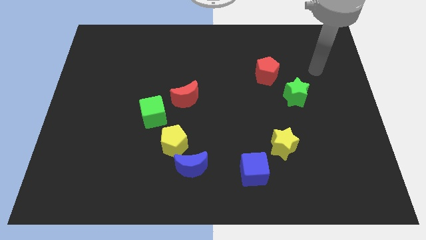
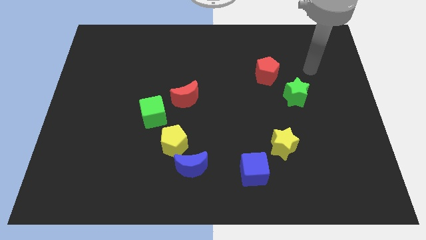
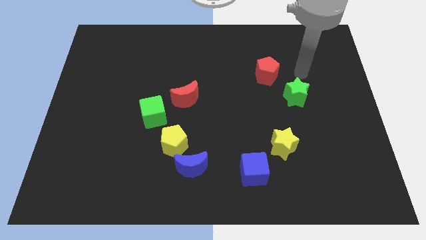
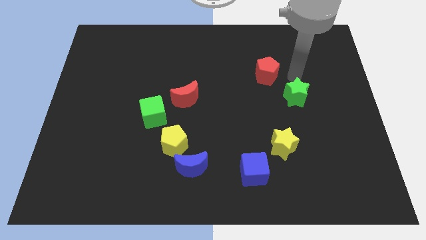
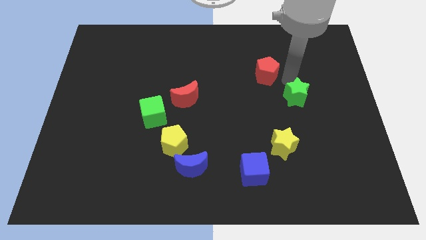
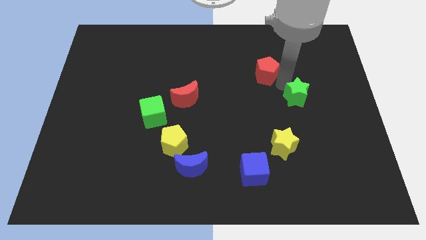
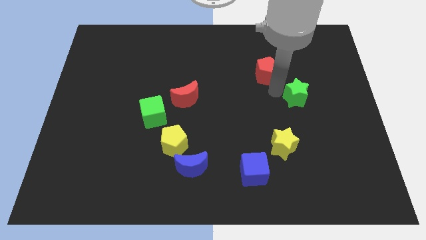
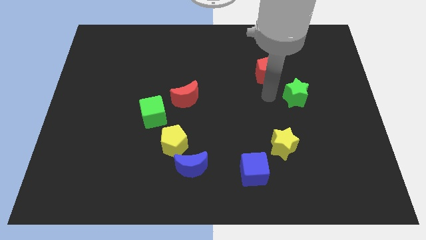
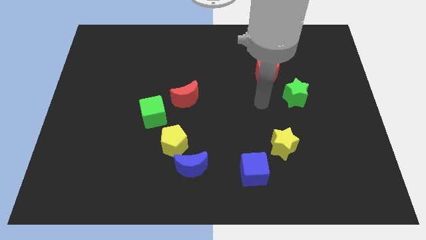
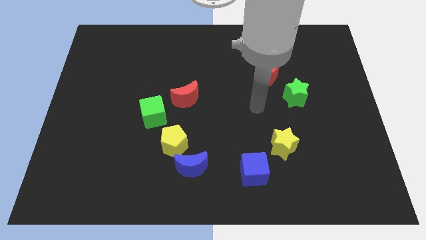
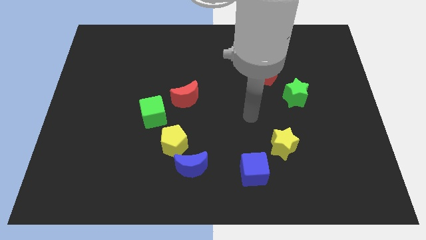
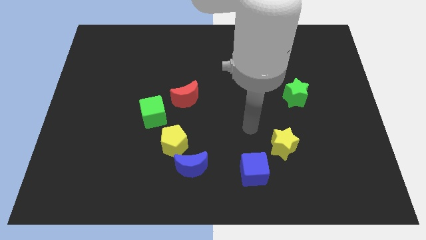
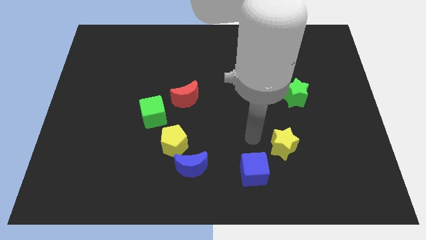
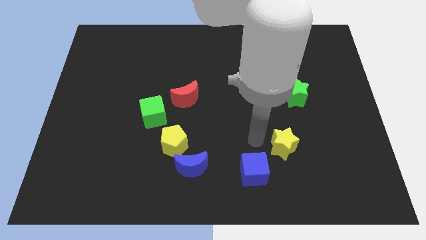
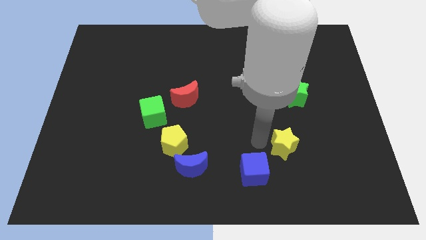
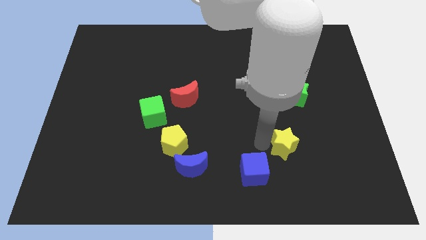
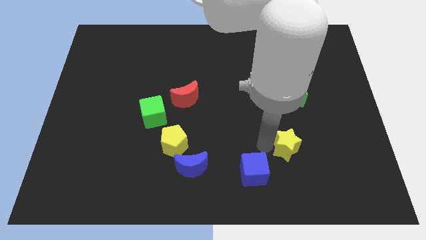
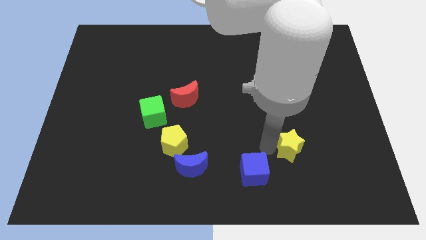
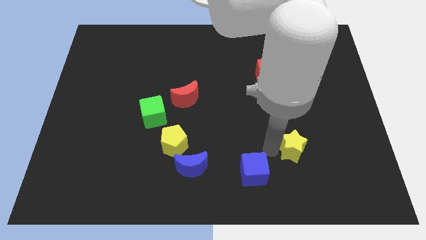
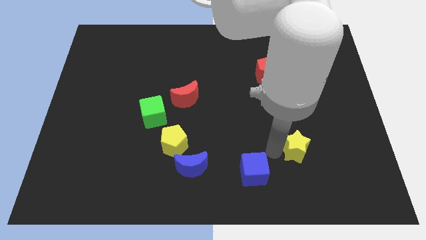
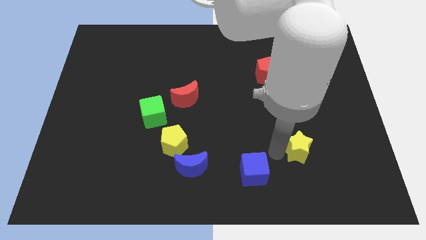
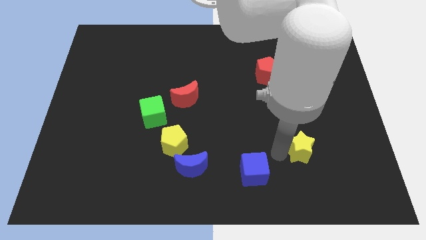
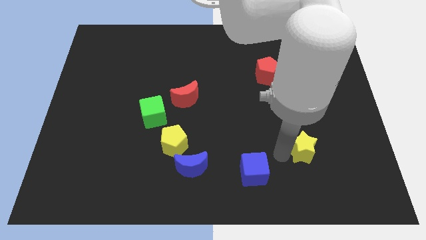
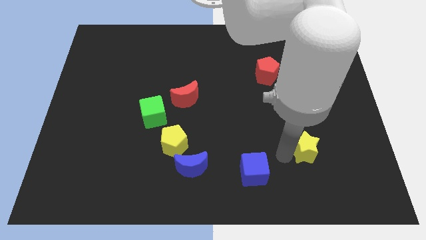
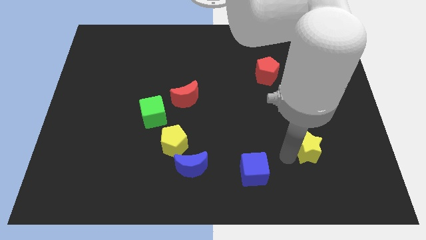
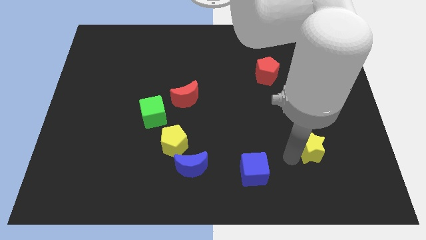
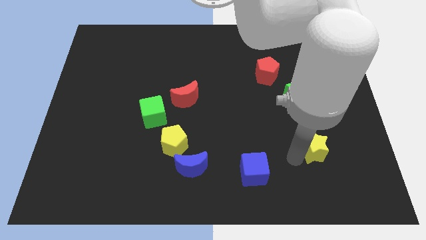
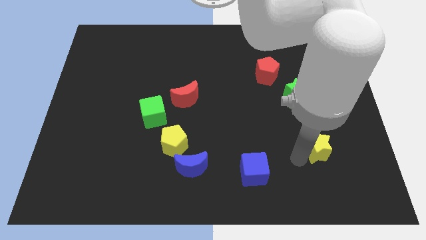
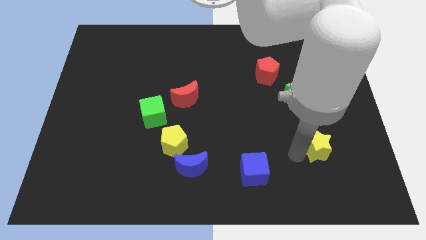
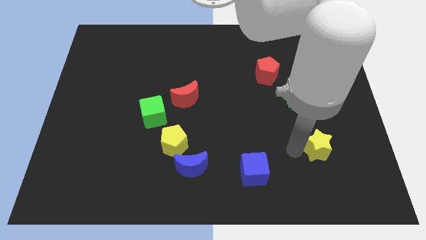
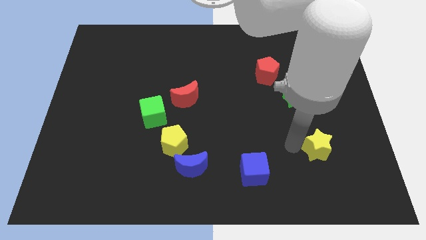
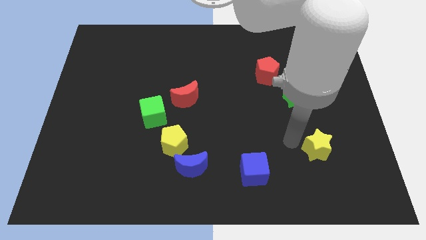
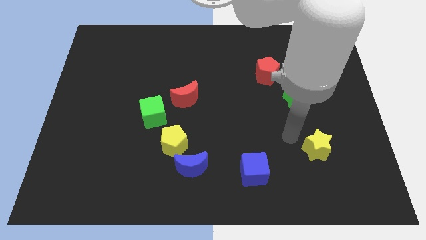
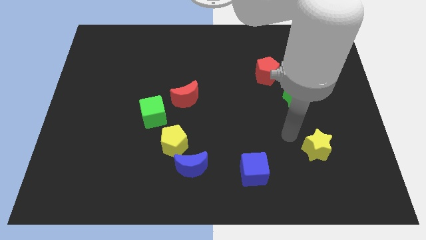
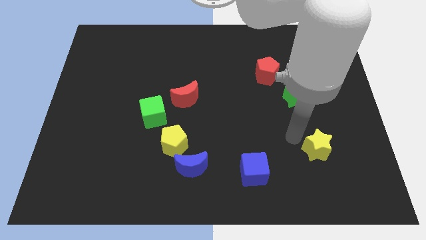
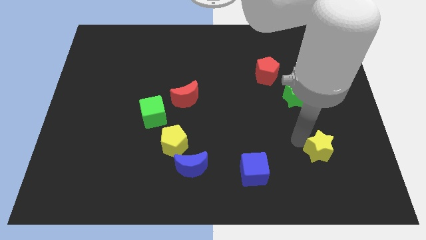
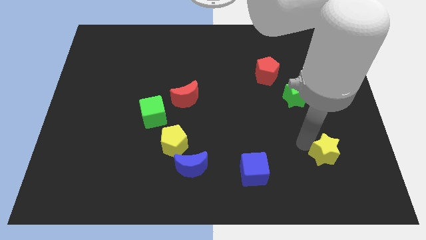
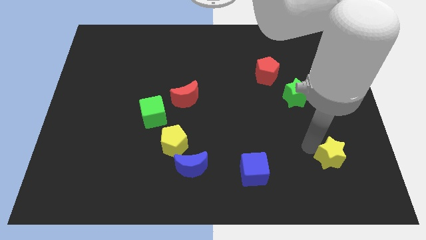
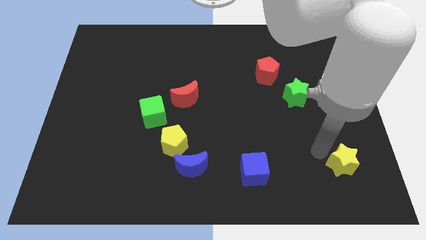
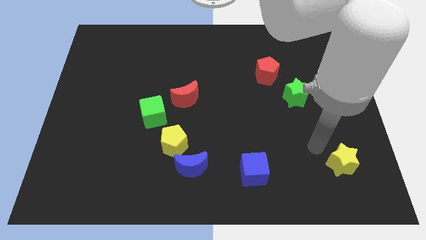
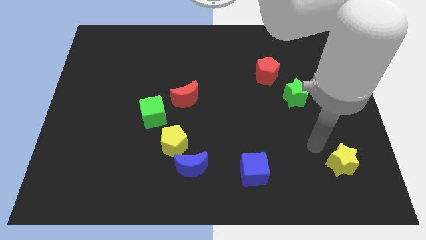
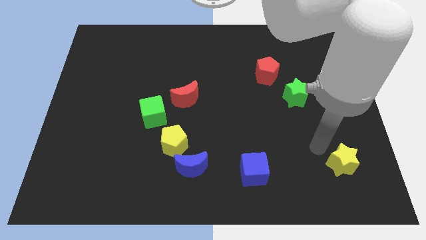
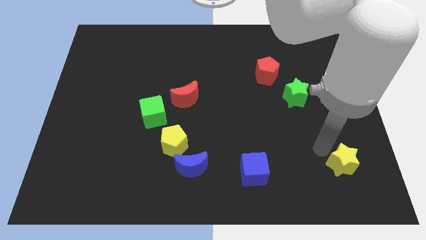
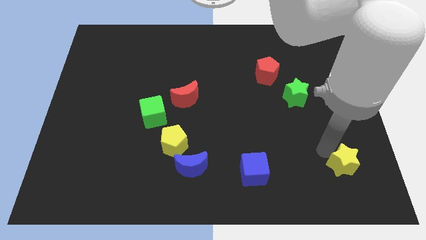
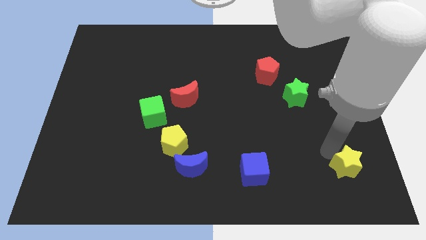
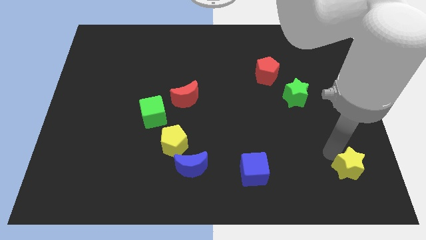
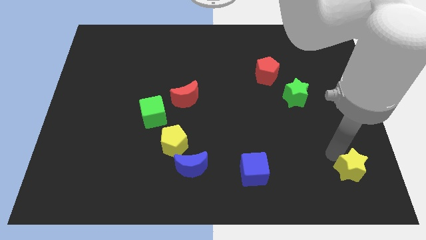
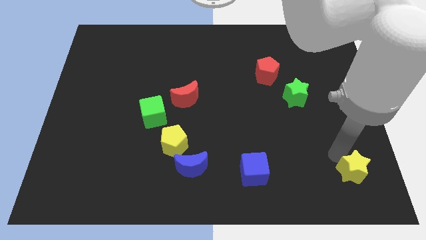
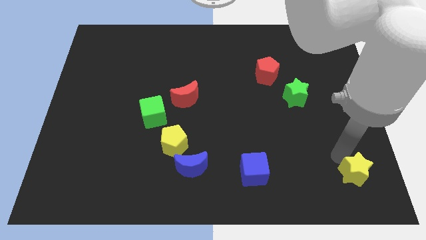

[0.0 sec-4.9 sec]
push the yellow star to the bottom right corner

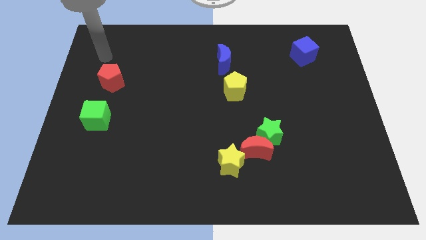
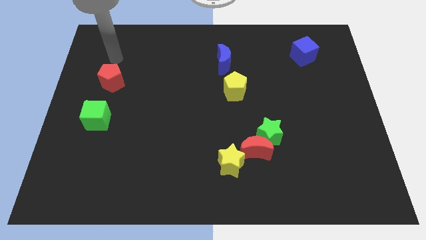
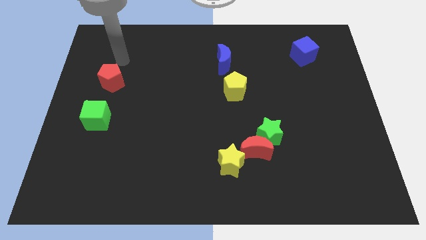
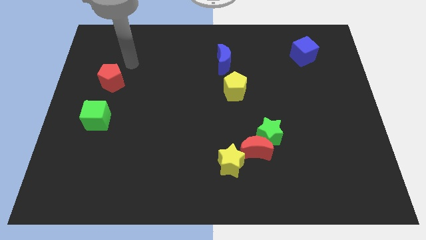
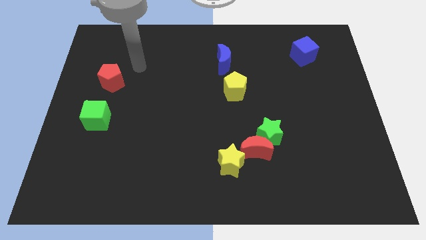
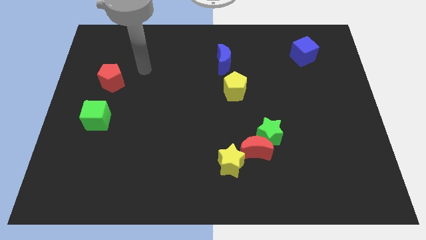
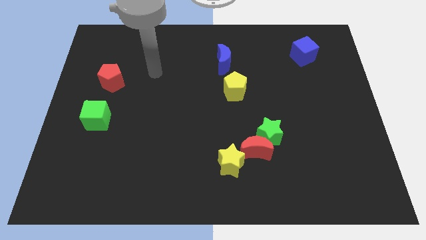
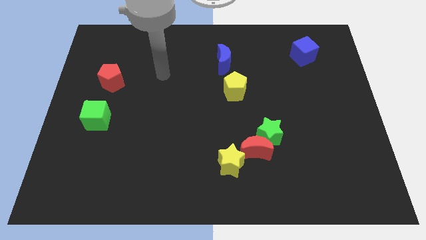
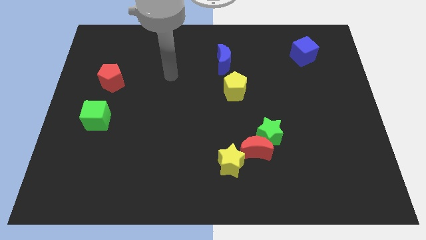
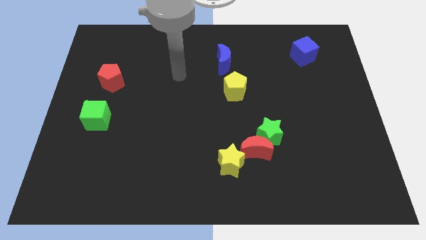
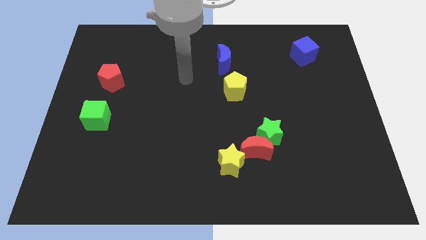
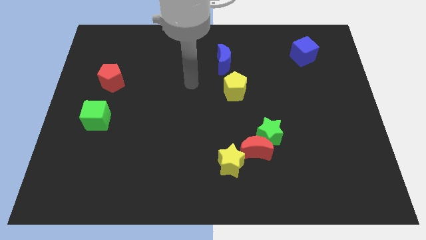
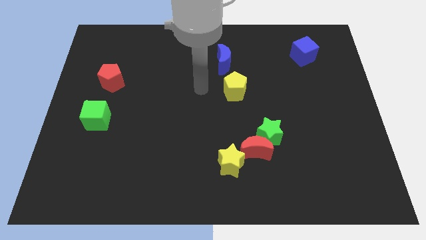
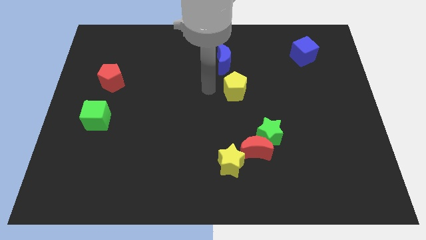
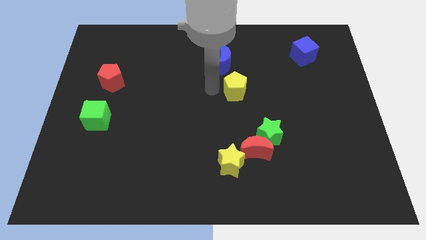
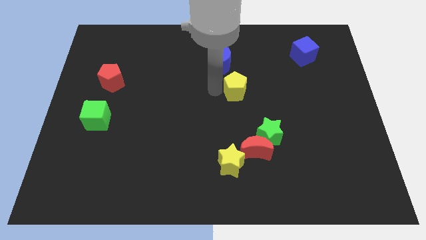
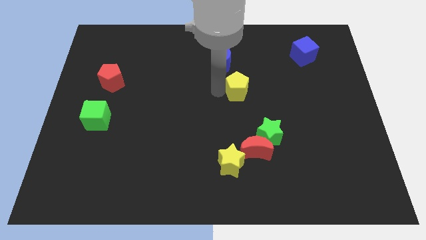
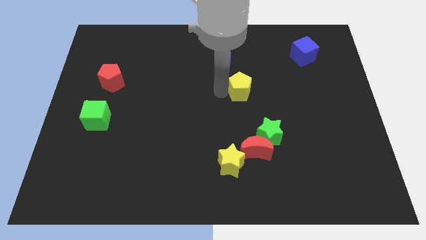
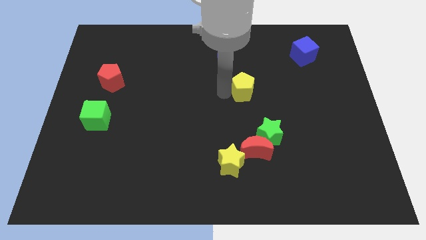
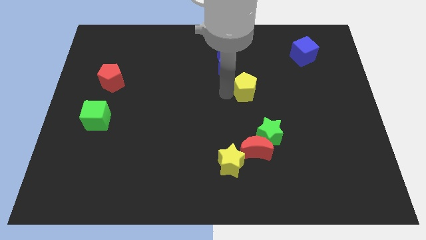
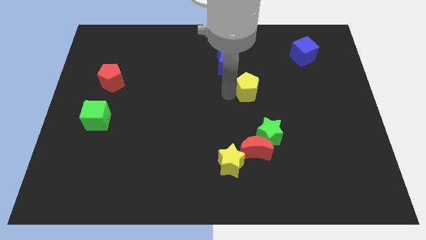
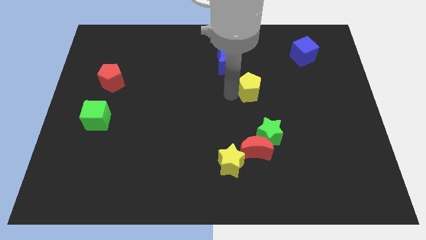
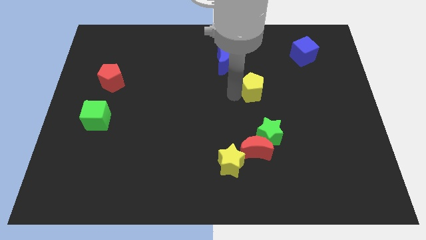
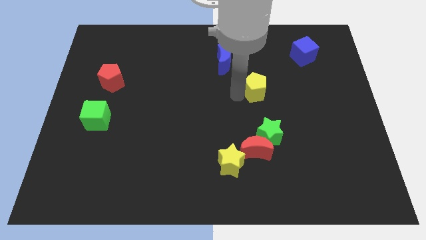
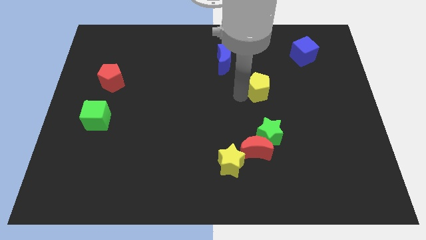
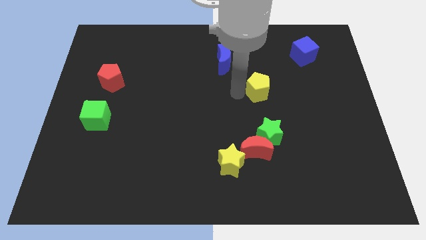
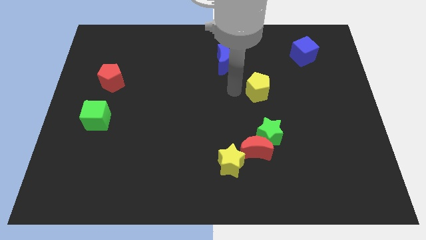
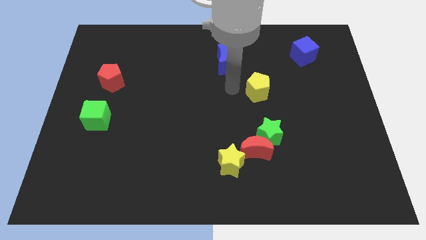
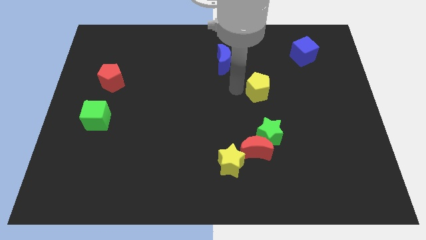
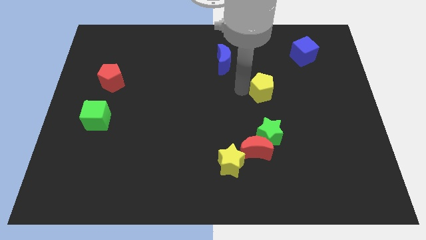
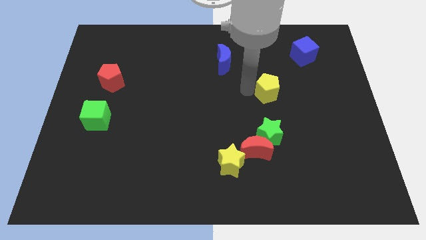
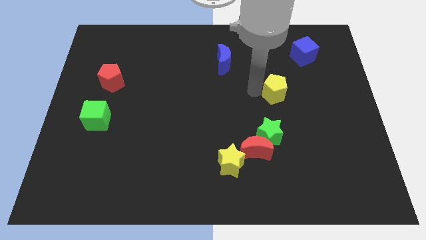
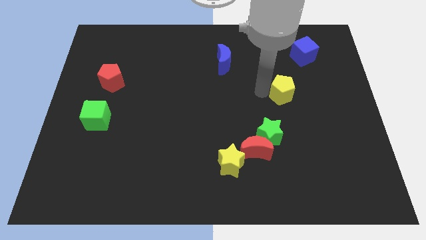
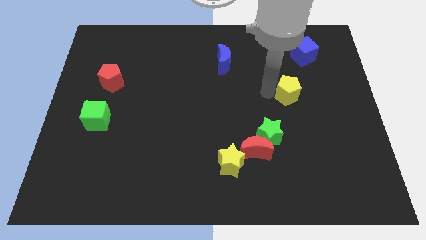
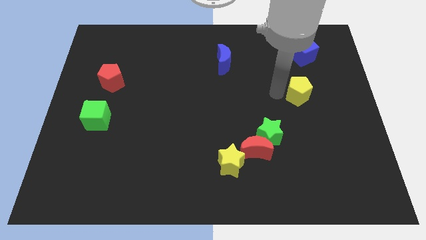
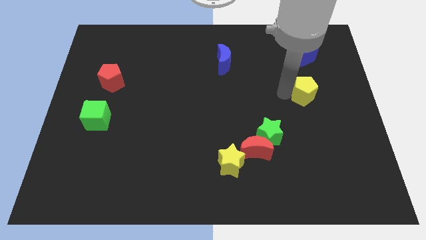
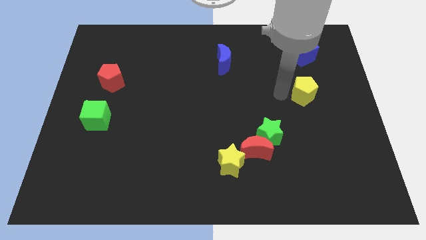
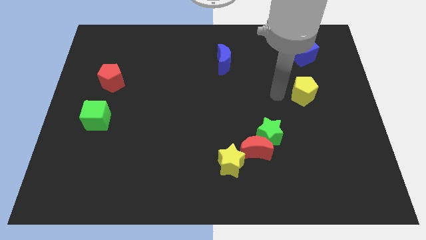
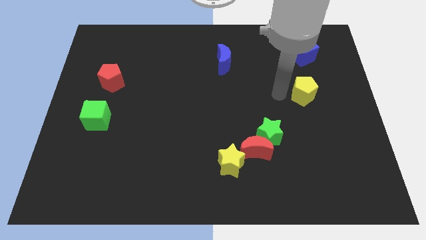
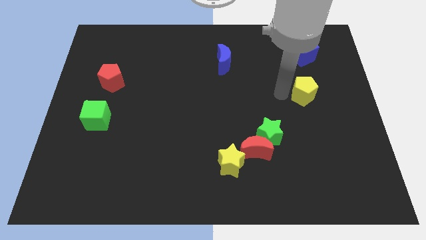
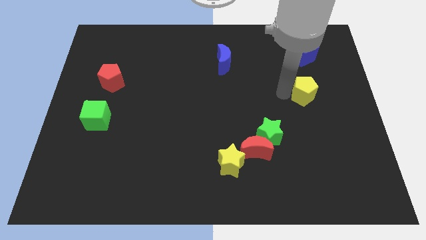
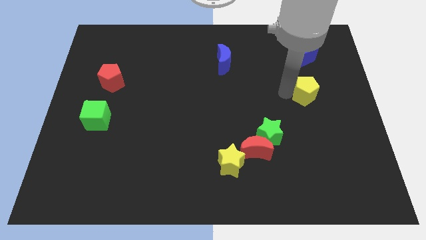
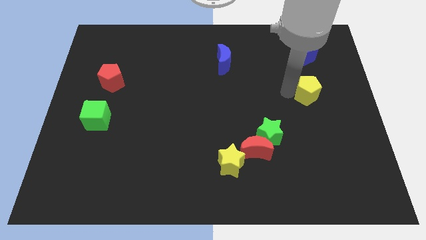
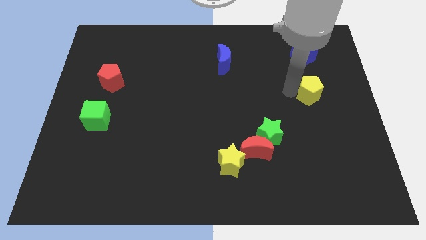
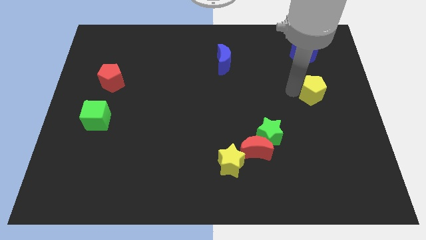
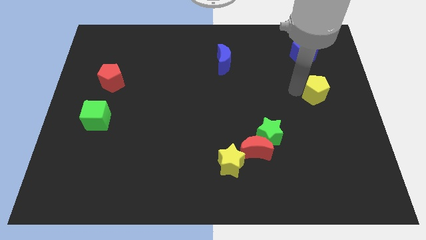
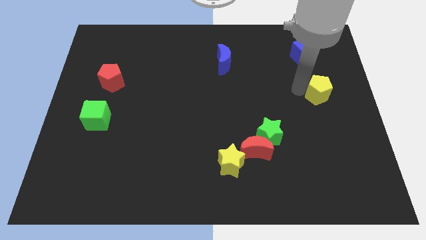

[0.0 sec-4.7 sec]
move the yellow pentagon to the center right
